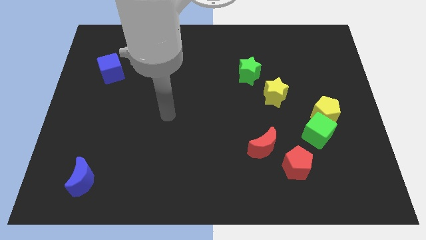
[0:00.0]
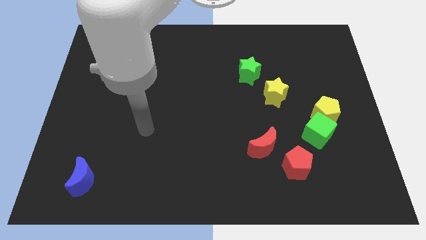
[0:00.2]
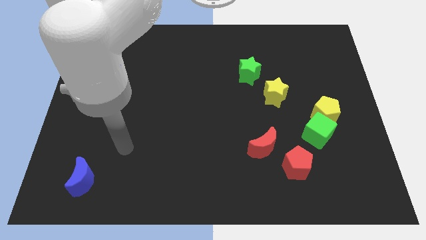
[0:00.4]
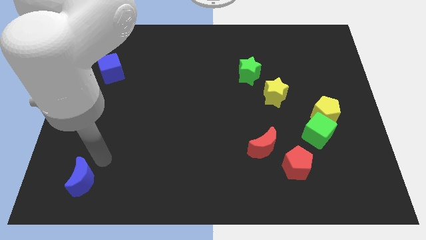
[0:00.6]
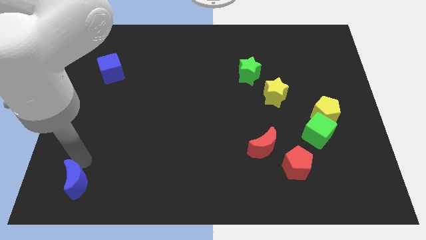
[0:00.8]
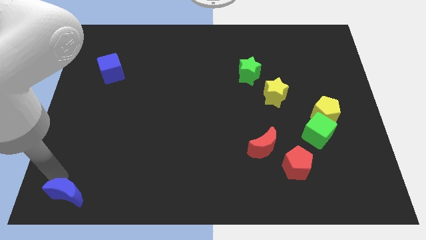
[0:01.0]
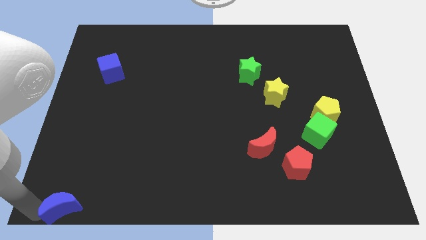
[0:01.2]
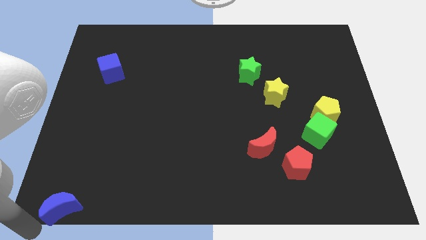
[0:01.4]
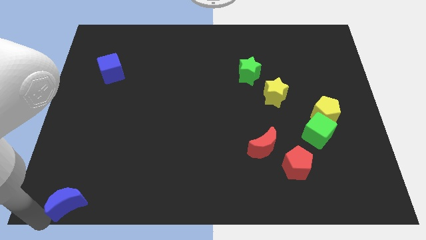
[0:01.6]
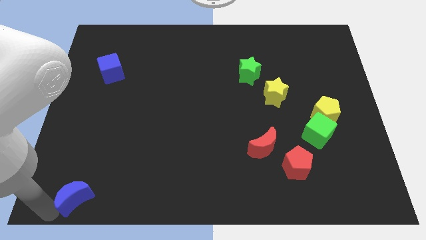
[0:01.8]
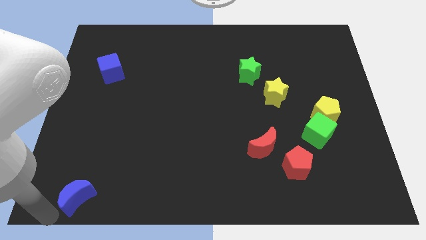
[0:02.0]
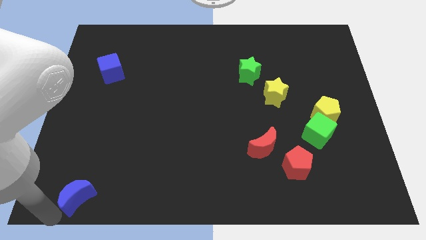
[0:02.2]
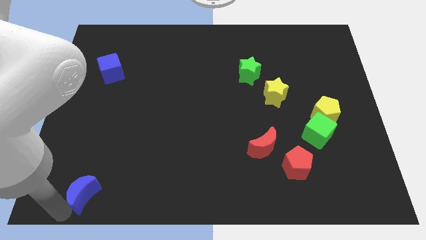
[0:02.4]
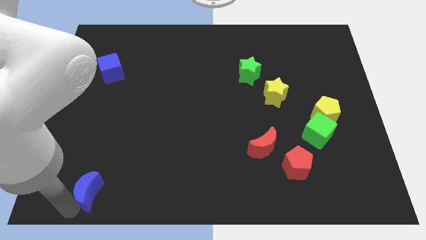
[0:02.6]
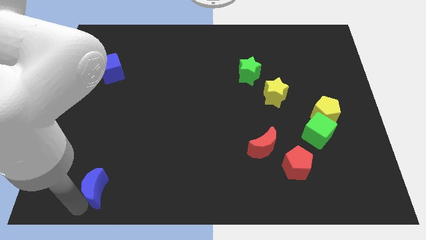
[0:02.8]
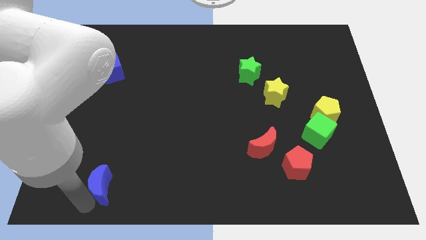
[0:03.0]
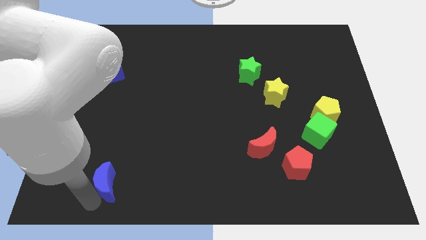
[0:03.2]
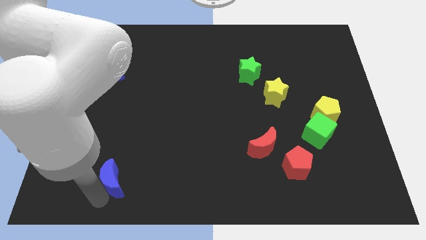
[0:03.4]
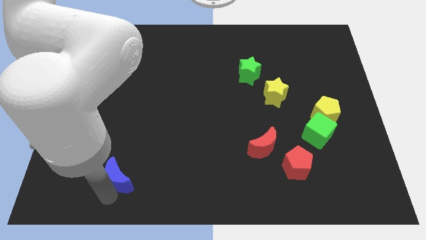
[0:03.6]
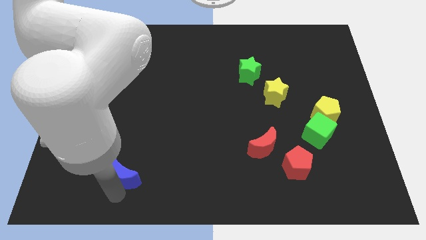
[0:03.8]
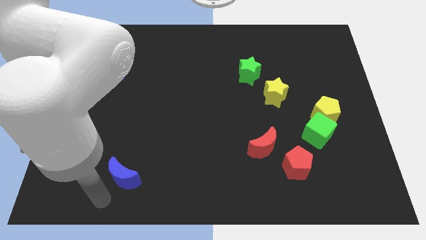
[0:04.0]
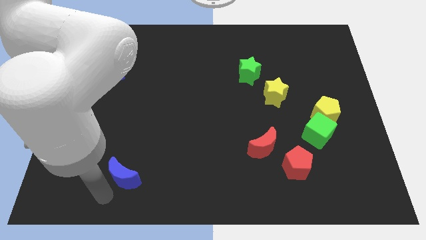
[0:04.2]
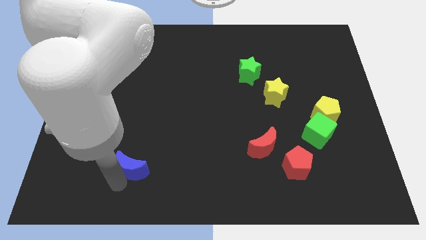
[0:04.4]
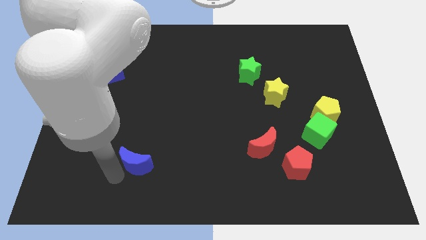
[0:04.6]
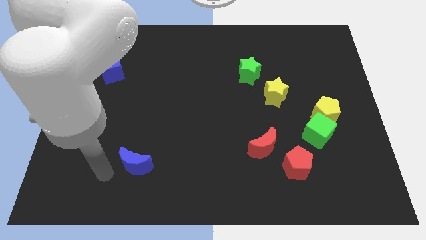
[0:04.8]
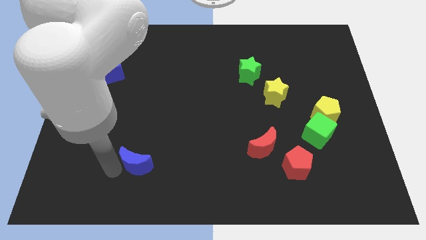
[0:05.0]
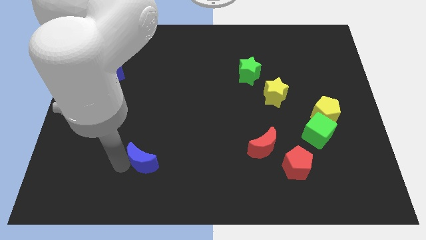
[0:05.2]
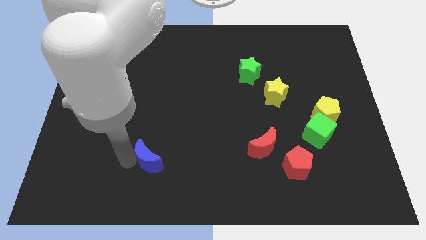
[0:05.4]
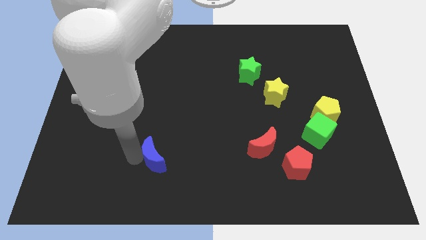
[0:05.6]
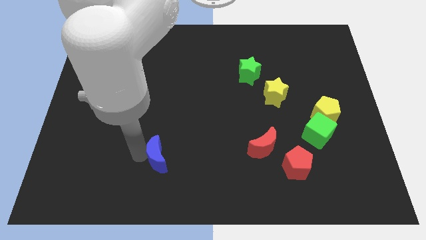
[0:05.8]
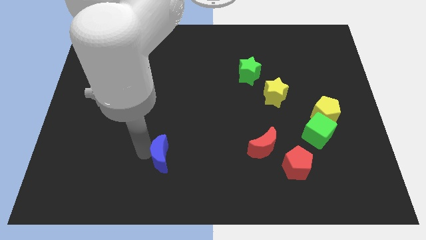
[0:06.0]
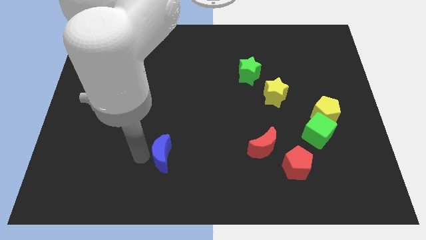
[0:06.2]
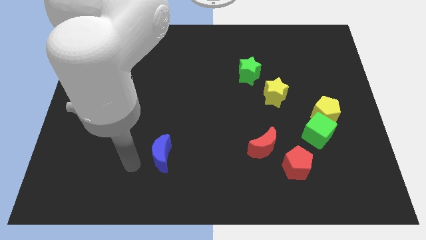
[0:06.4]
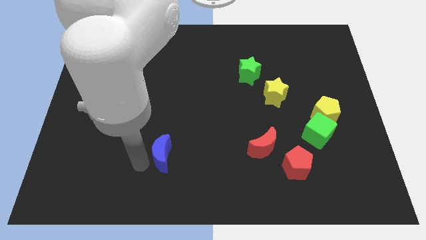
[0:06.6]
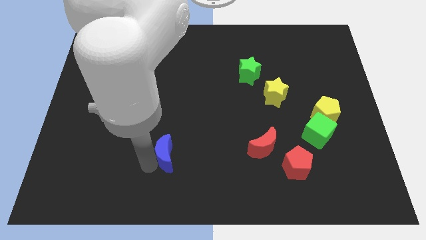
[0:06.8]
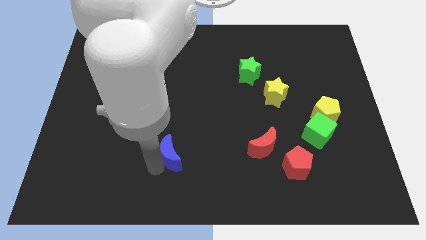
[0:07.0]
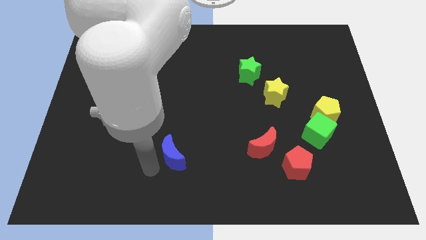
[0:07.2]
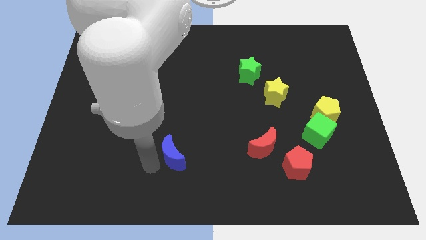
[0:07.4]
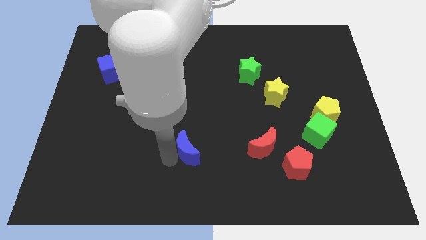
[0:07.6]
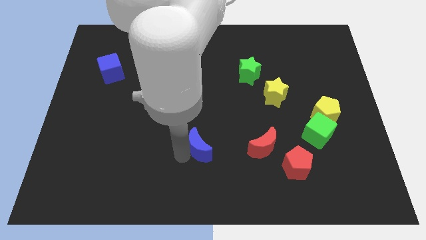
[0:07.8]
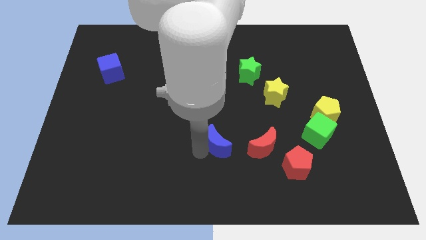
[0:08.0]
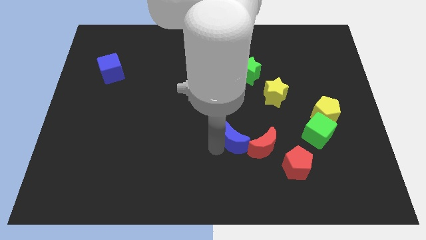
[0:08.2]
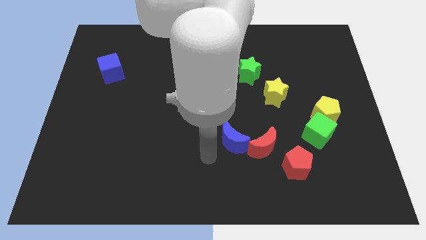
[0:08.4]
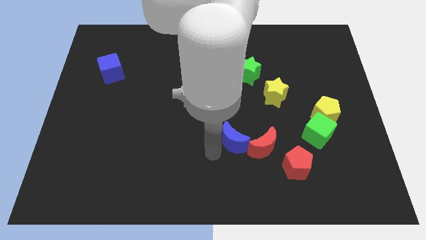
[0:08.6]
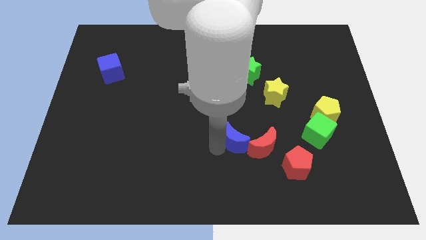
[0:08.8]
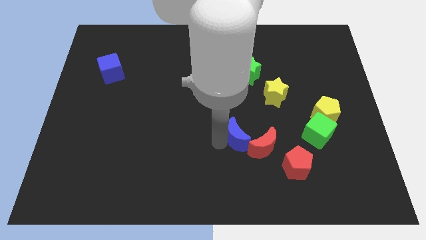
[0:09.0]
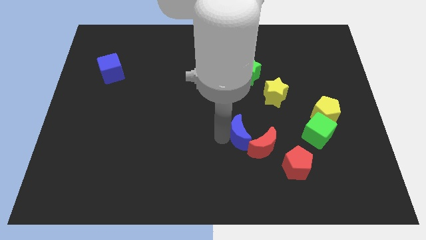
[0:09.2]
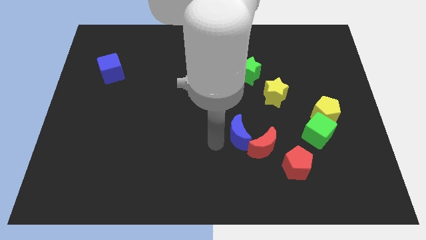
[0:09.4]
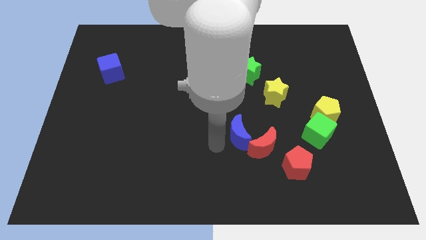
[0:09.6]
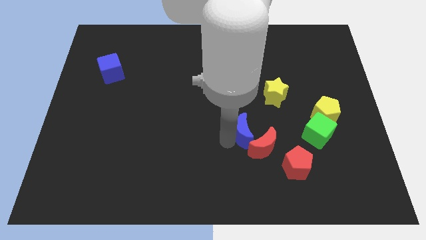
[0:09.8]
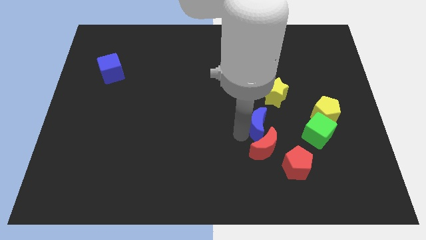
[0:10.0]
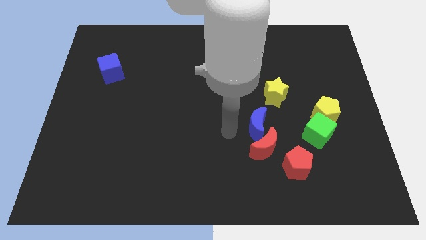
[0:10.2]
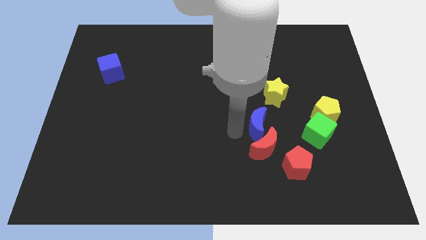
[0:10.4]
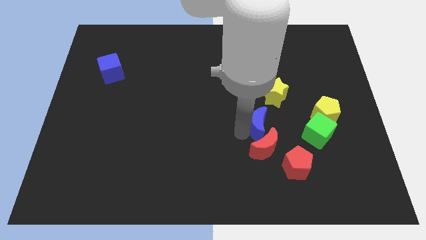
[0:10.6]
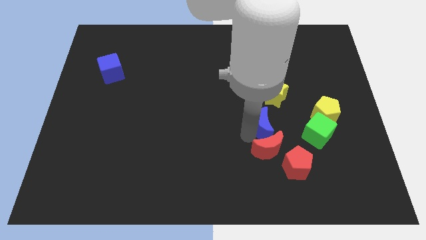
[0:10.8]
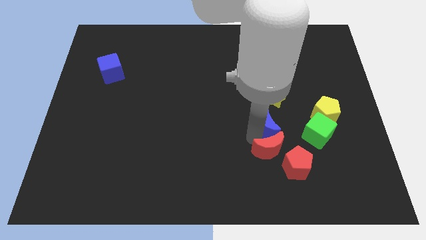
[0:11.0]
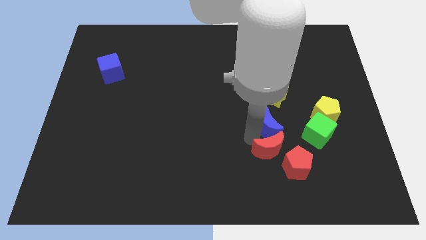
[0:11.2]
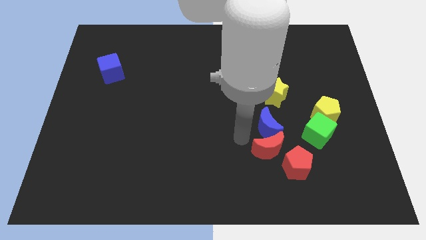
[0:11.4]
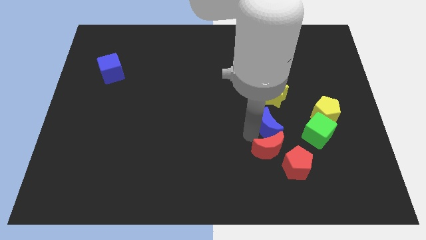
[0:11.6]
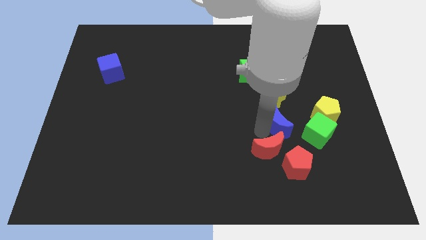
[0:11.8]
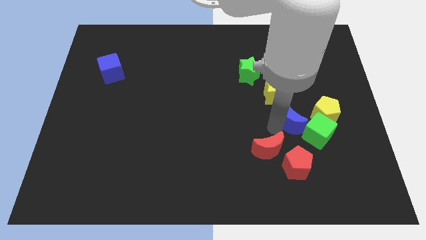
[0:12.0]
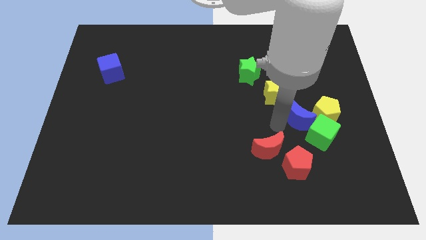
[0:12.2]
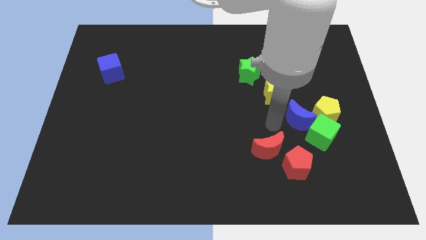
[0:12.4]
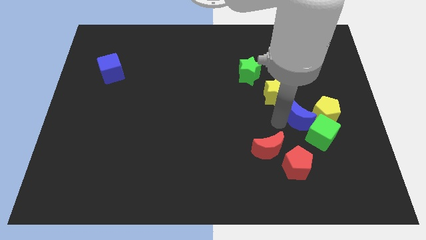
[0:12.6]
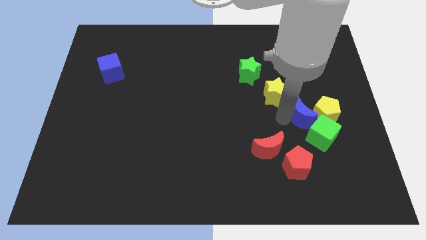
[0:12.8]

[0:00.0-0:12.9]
push the blue moon to the yellow pentagon
